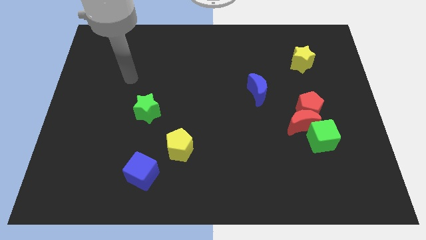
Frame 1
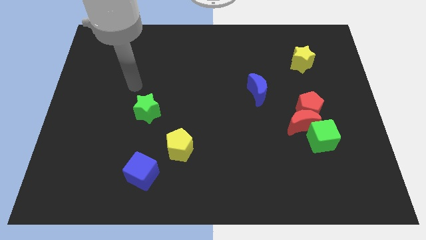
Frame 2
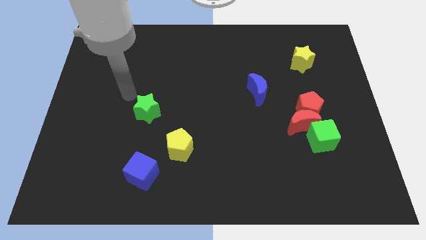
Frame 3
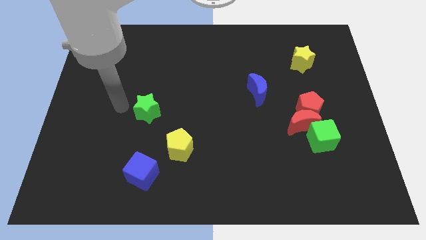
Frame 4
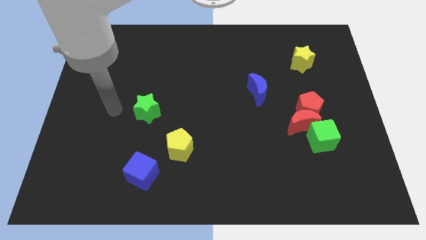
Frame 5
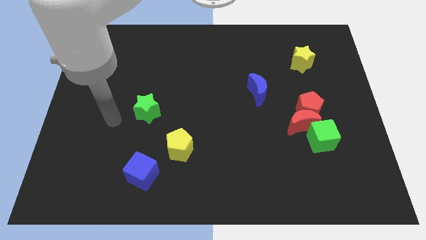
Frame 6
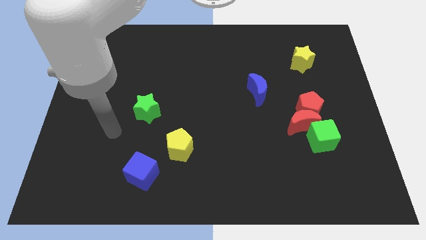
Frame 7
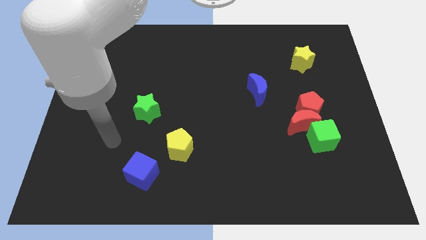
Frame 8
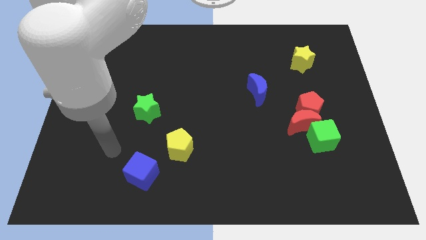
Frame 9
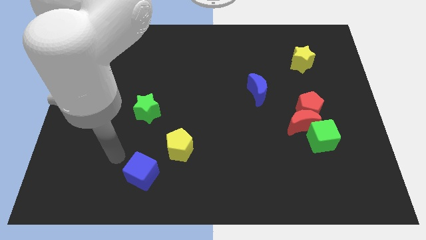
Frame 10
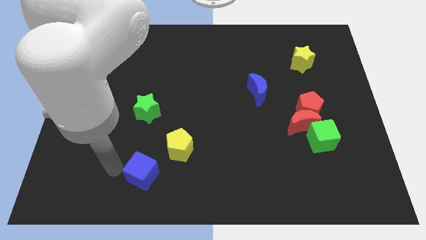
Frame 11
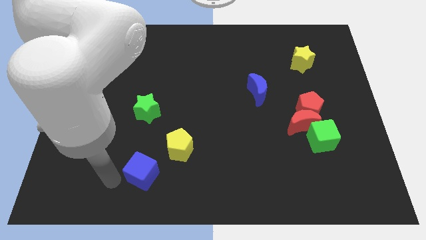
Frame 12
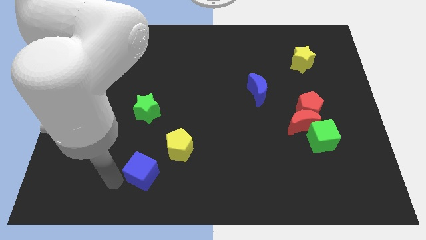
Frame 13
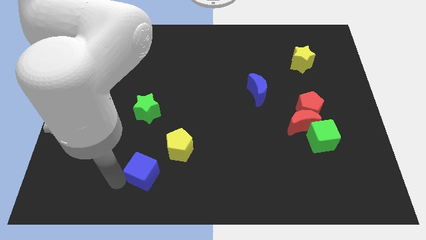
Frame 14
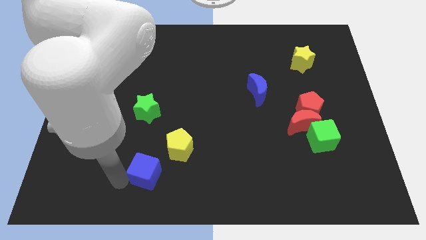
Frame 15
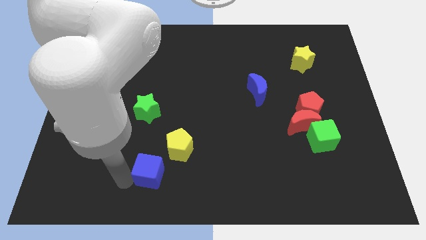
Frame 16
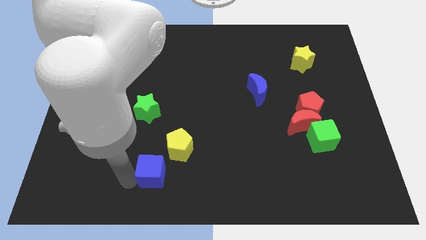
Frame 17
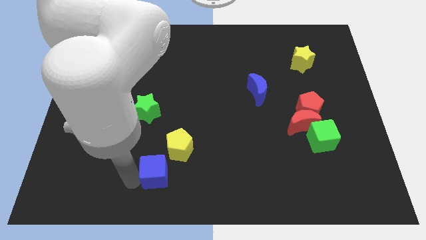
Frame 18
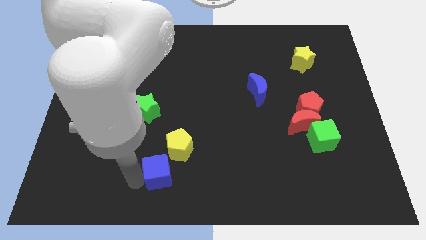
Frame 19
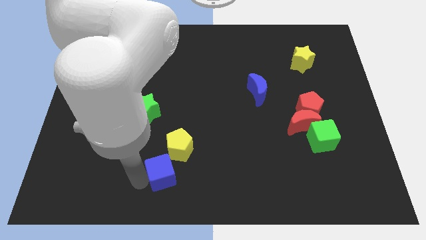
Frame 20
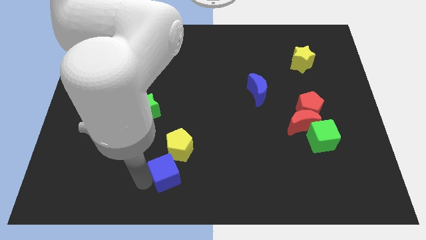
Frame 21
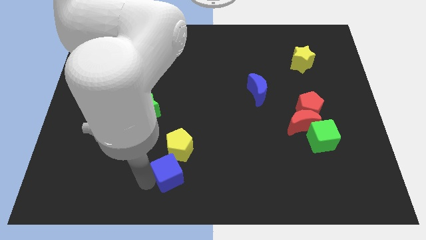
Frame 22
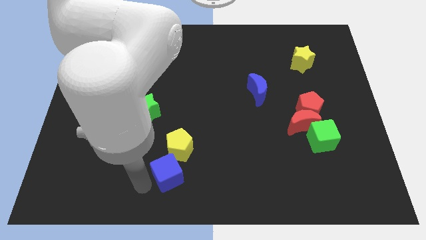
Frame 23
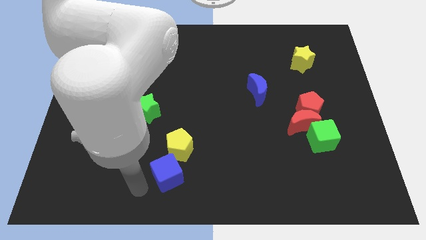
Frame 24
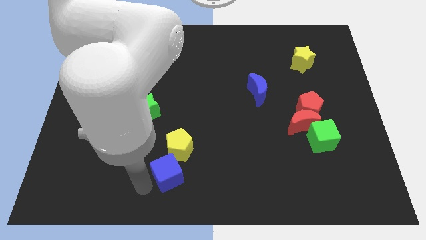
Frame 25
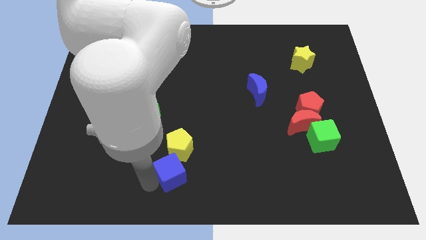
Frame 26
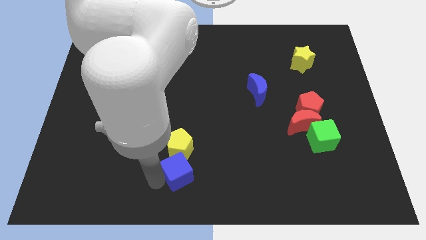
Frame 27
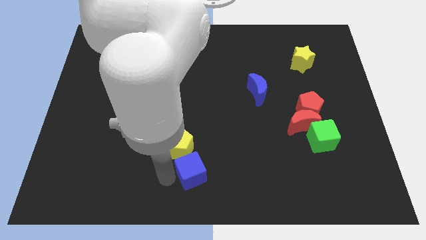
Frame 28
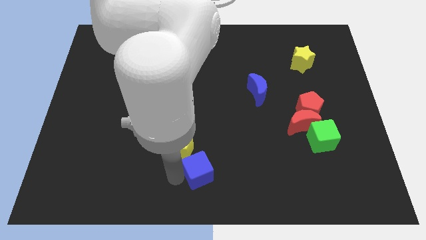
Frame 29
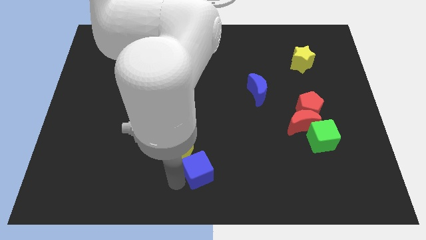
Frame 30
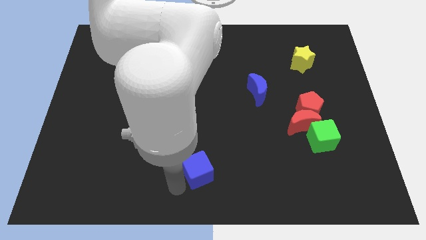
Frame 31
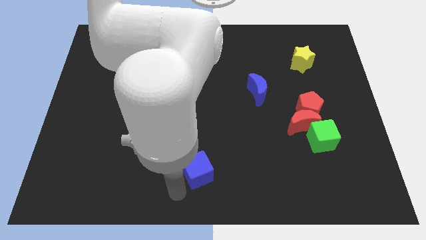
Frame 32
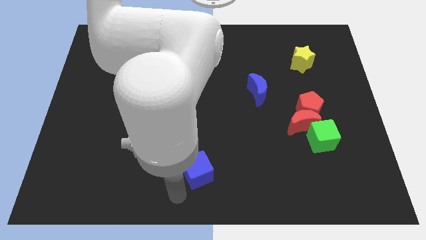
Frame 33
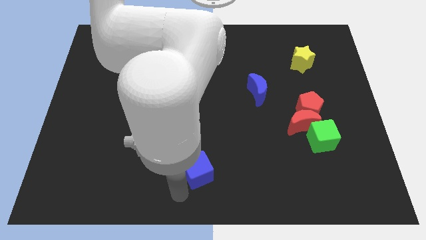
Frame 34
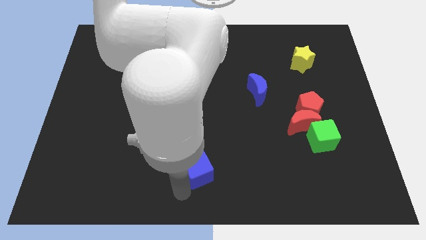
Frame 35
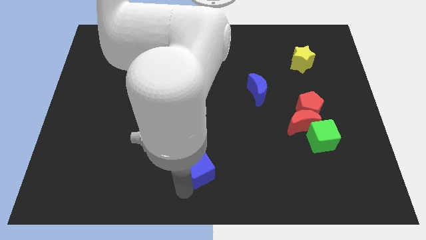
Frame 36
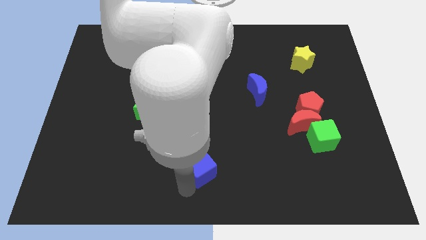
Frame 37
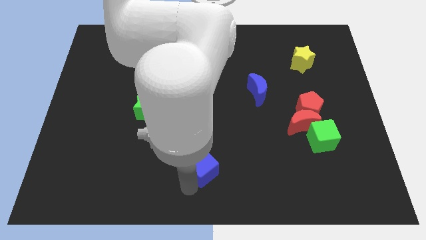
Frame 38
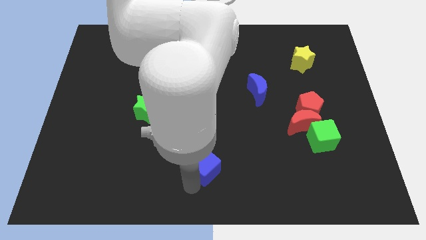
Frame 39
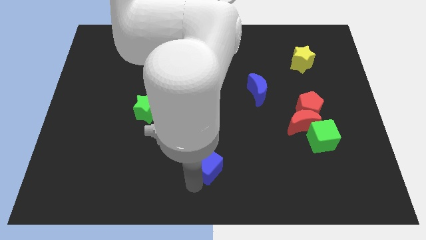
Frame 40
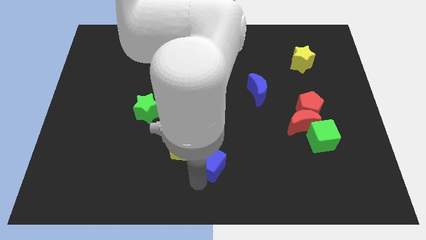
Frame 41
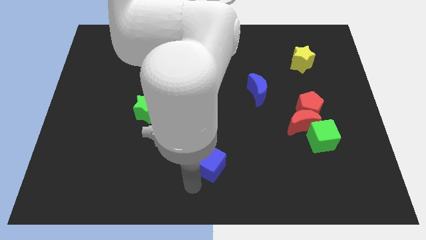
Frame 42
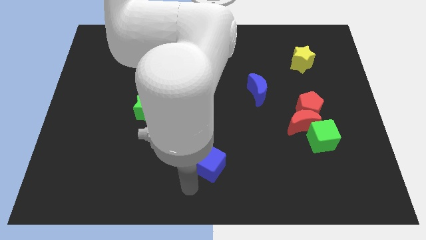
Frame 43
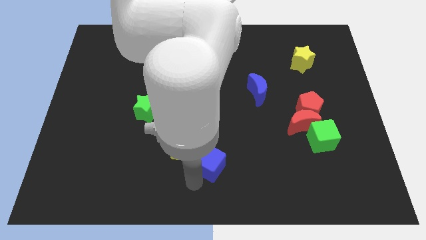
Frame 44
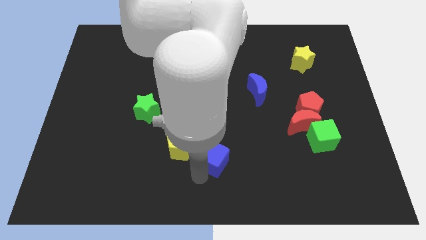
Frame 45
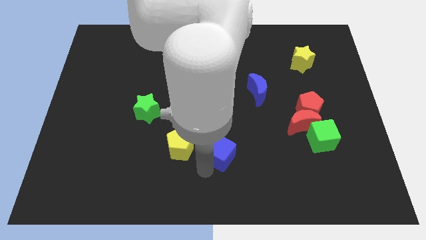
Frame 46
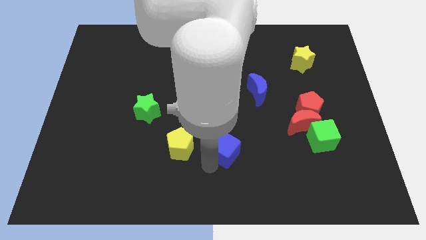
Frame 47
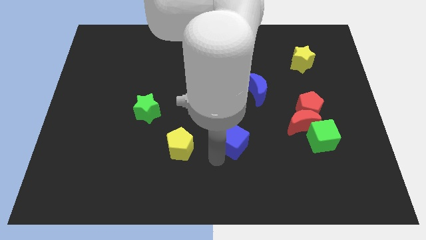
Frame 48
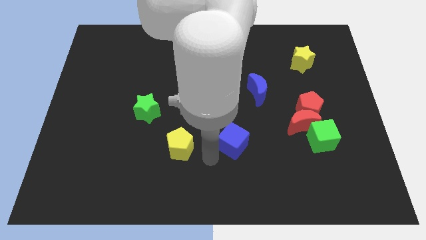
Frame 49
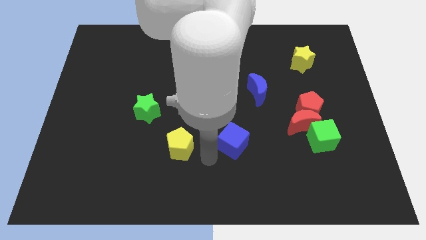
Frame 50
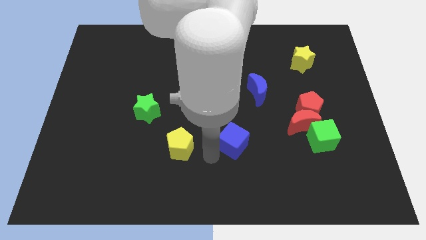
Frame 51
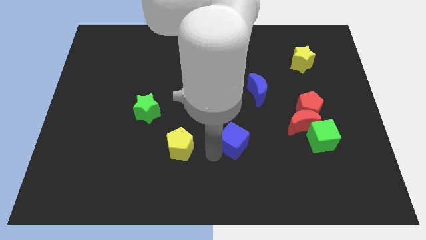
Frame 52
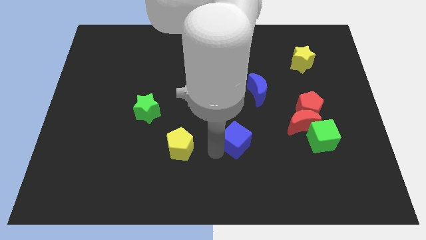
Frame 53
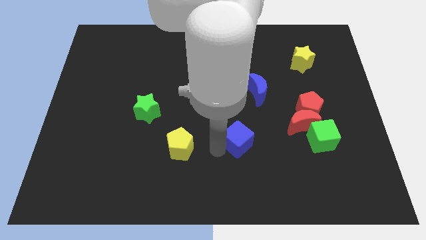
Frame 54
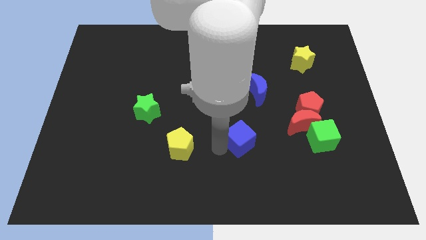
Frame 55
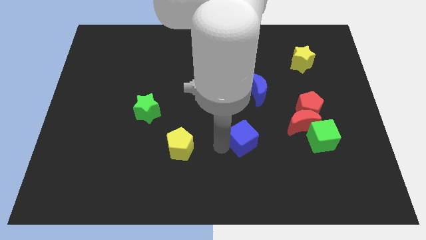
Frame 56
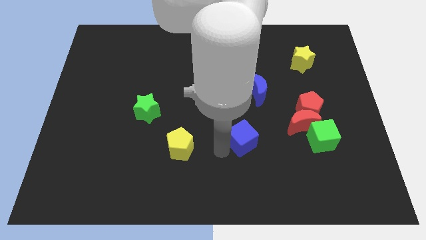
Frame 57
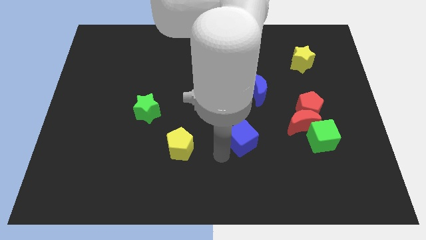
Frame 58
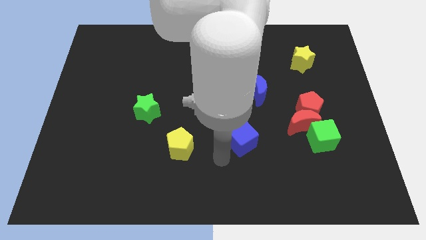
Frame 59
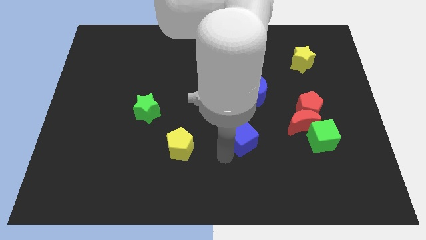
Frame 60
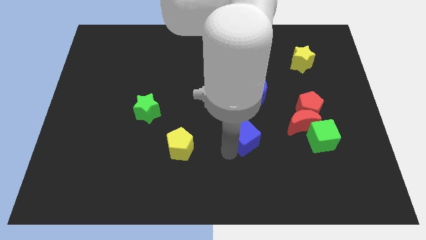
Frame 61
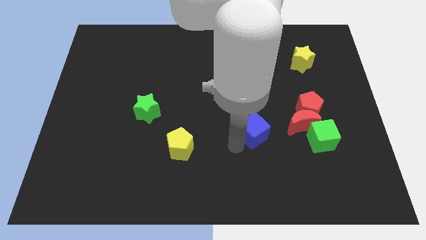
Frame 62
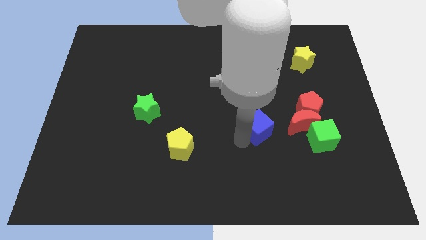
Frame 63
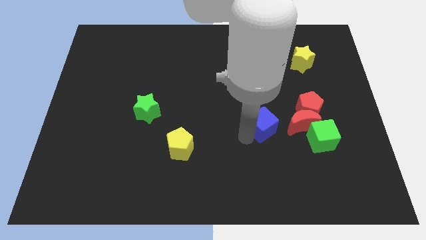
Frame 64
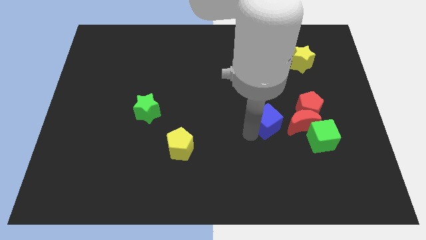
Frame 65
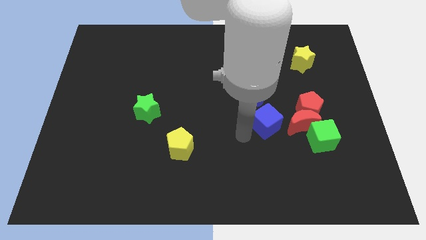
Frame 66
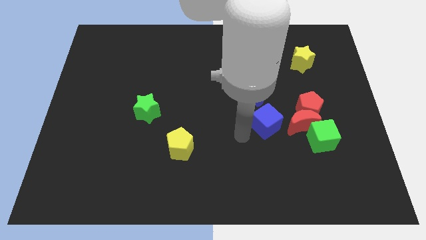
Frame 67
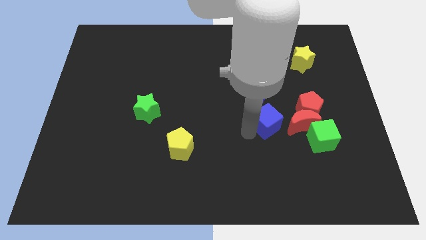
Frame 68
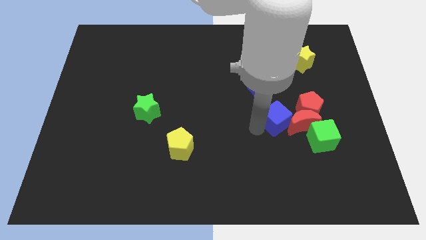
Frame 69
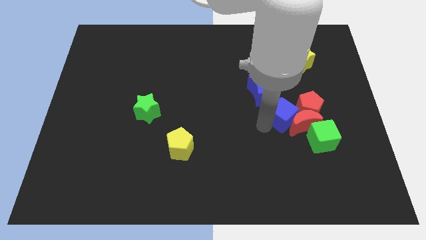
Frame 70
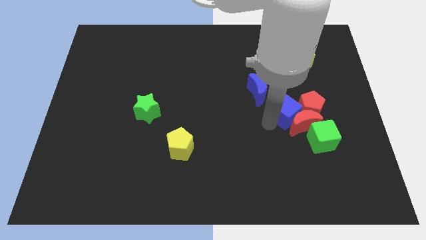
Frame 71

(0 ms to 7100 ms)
move the blue cube to the red pentagon
